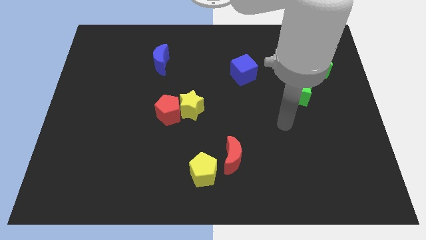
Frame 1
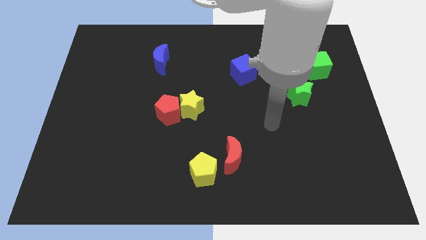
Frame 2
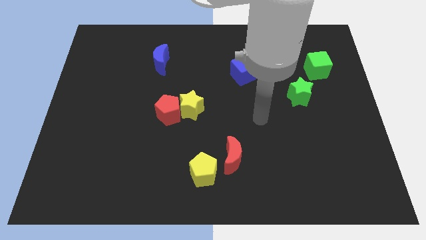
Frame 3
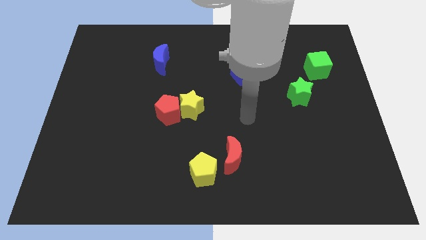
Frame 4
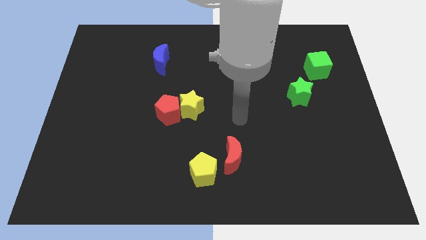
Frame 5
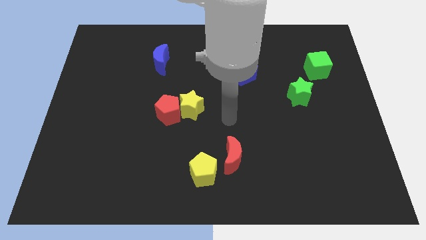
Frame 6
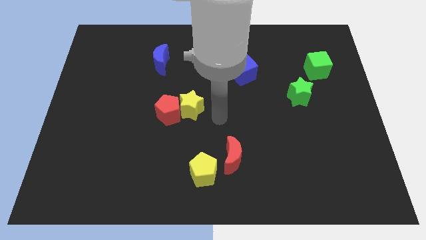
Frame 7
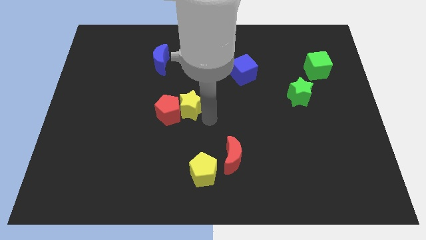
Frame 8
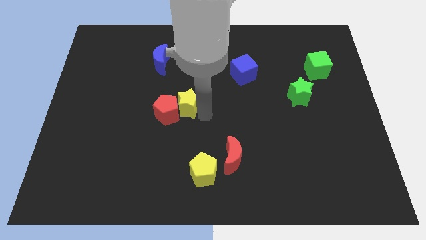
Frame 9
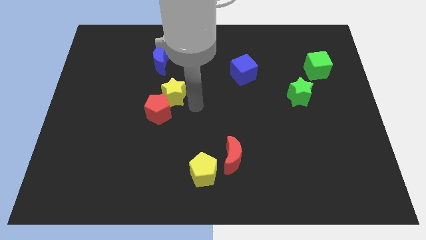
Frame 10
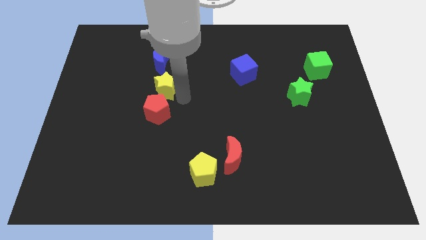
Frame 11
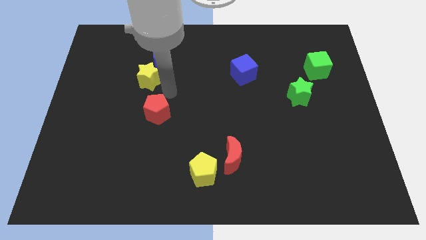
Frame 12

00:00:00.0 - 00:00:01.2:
pull the red pentagon apart from the yellow star

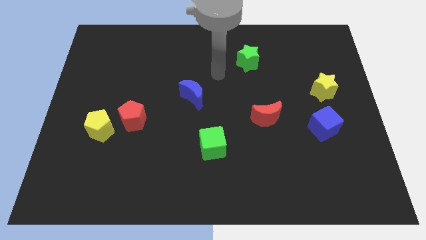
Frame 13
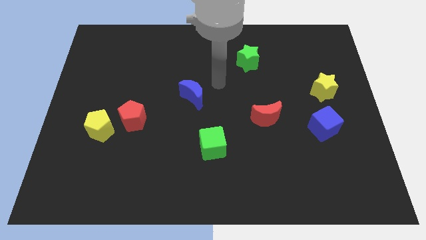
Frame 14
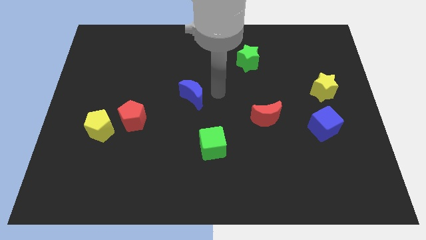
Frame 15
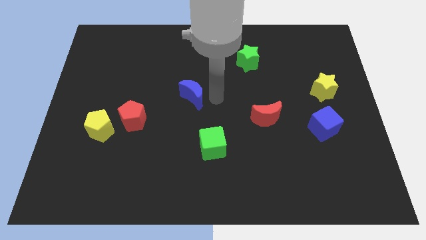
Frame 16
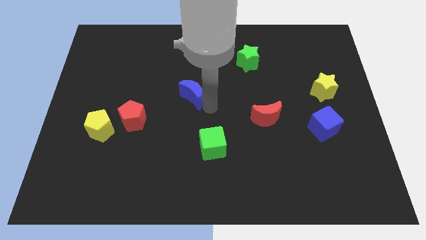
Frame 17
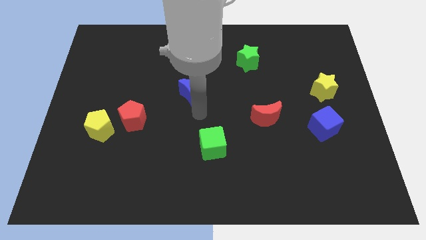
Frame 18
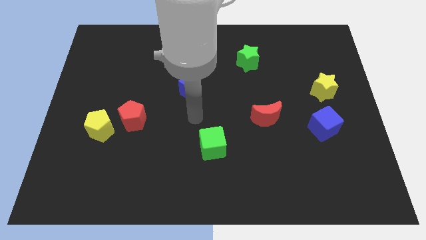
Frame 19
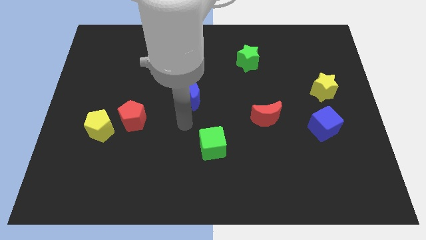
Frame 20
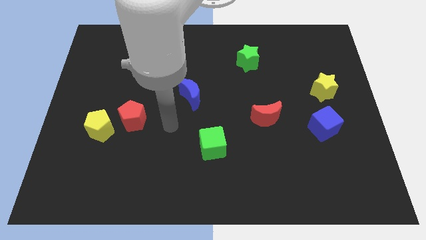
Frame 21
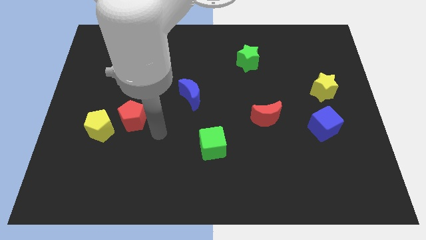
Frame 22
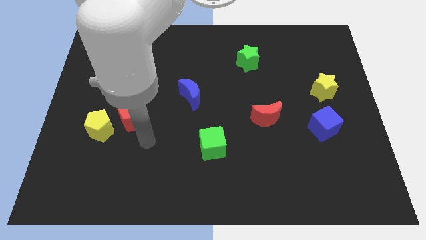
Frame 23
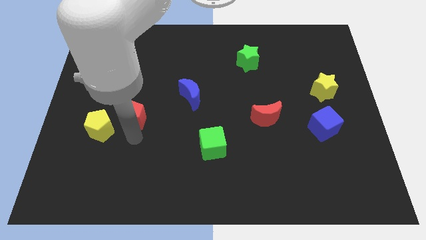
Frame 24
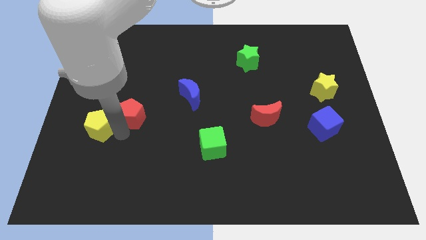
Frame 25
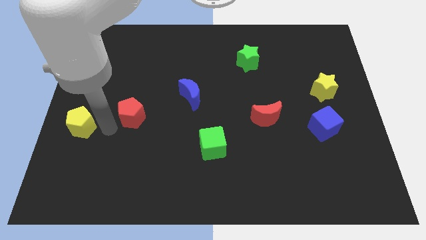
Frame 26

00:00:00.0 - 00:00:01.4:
pull the red pentagon apart from the yellow pentagon

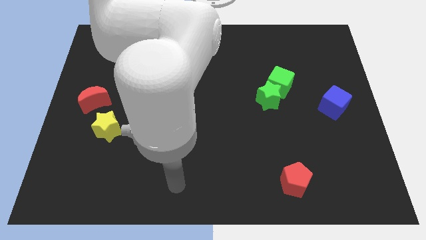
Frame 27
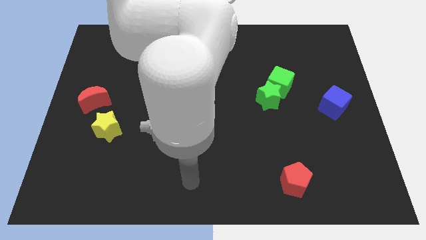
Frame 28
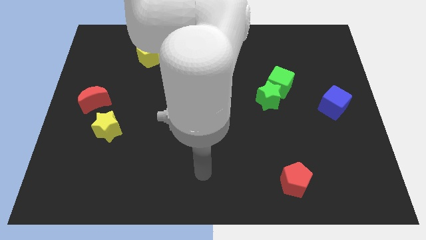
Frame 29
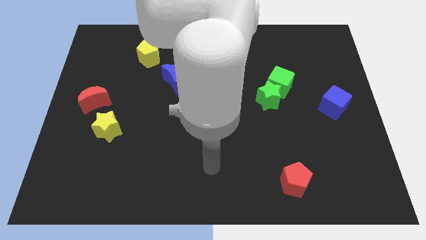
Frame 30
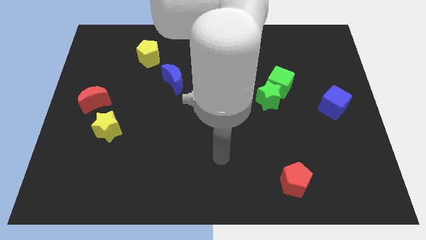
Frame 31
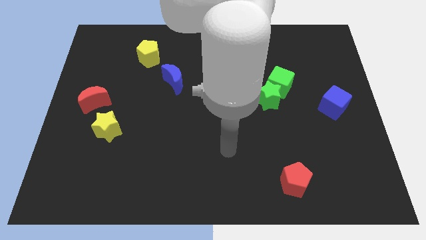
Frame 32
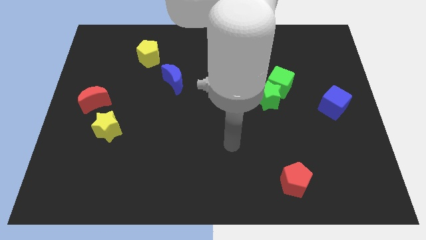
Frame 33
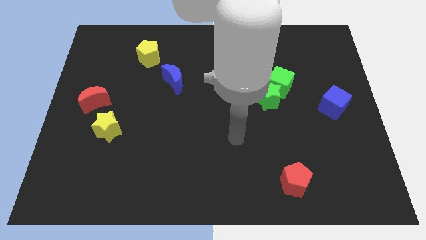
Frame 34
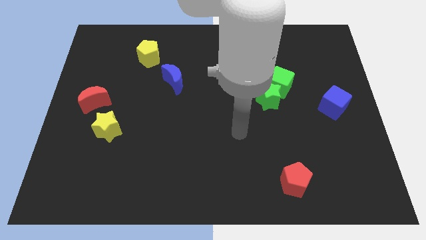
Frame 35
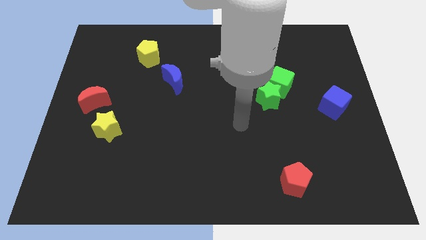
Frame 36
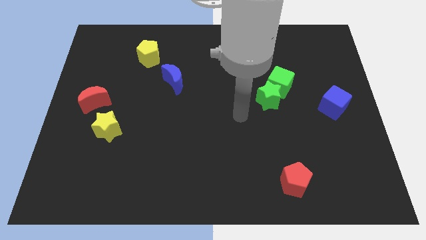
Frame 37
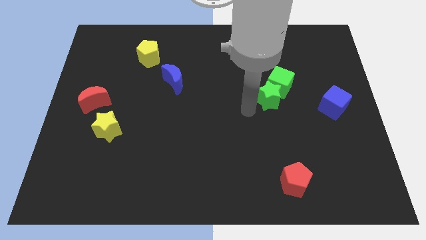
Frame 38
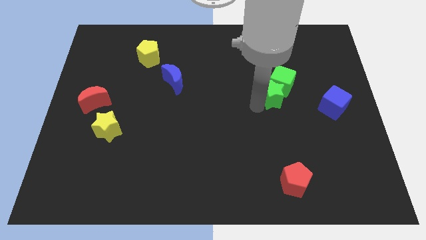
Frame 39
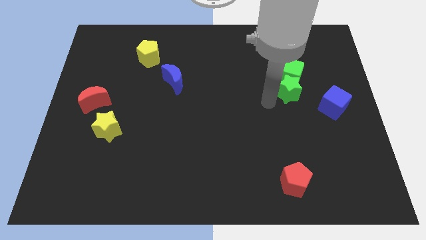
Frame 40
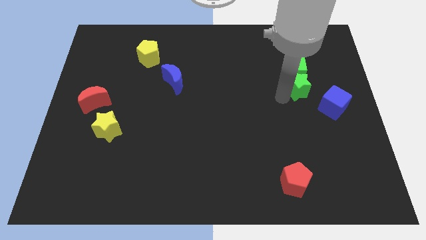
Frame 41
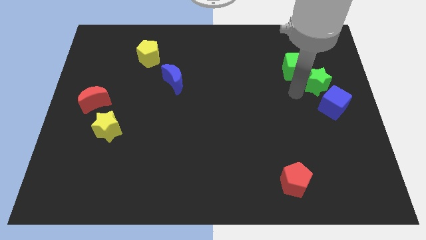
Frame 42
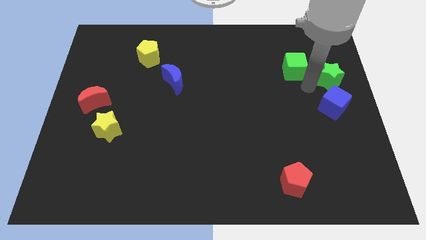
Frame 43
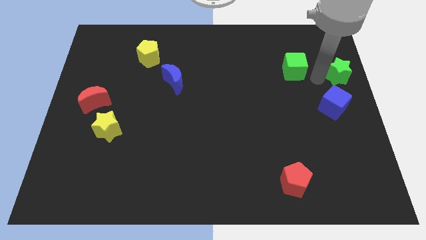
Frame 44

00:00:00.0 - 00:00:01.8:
separate the green cube from the green star

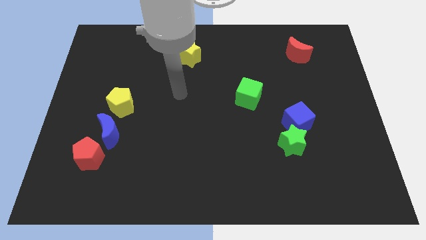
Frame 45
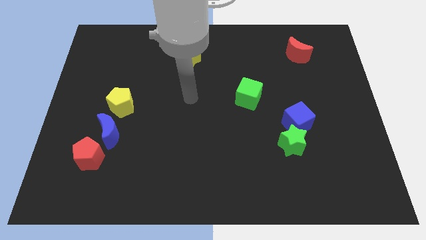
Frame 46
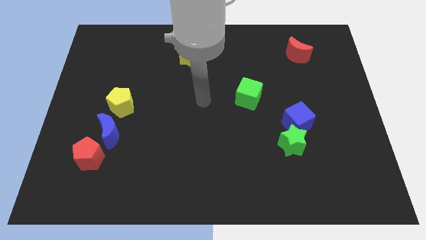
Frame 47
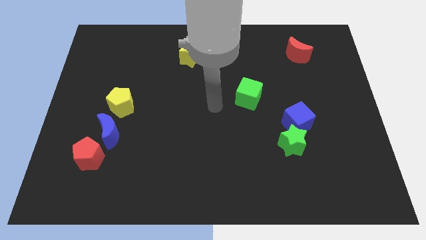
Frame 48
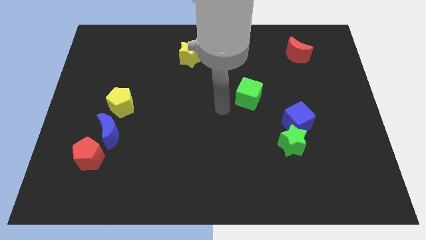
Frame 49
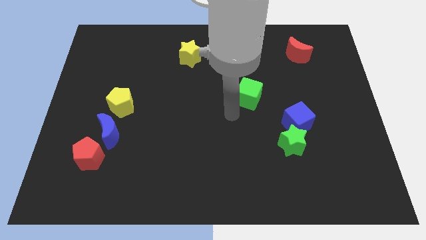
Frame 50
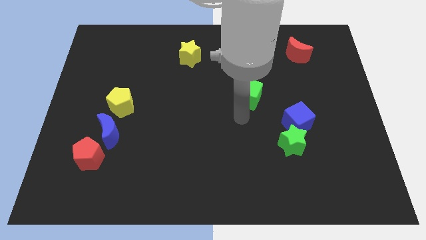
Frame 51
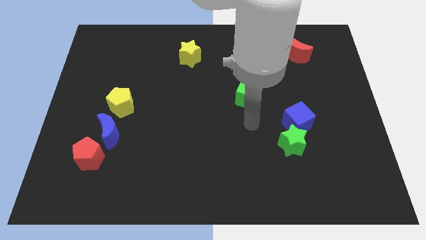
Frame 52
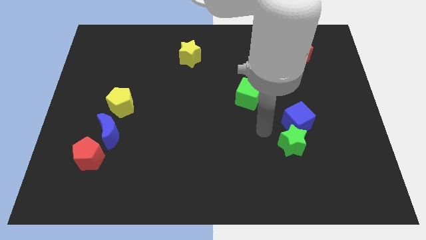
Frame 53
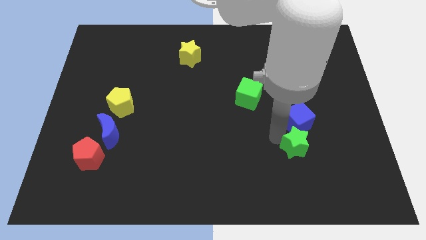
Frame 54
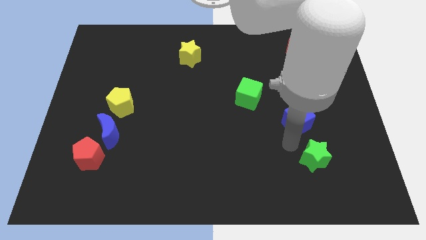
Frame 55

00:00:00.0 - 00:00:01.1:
separate the blue cube from the green star

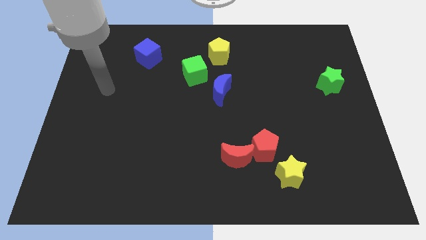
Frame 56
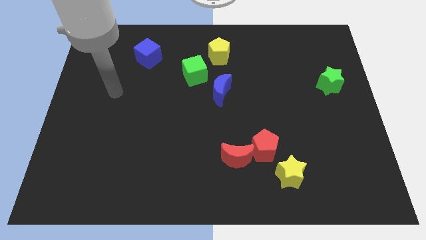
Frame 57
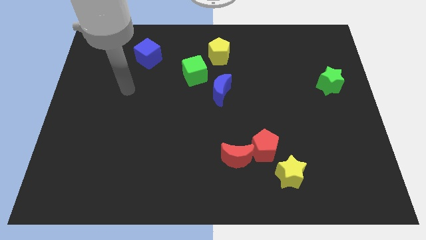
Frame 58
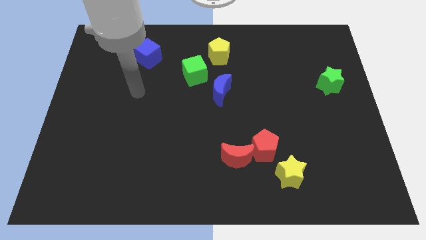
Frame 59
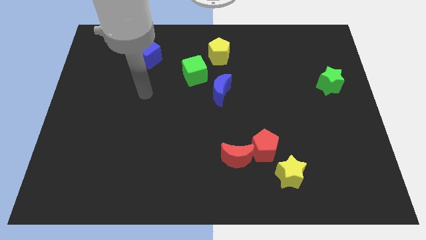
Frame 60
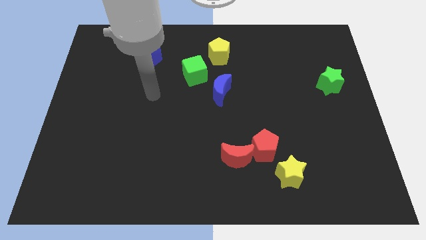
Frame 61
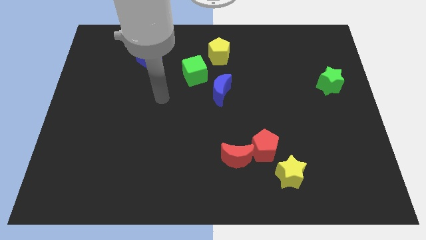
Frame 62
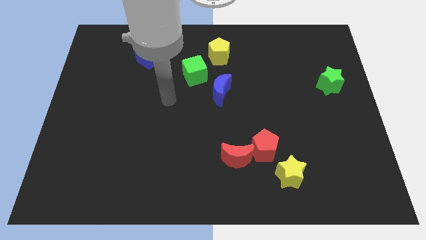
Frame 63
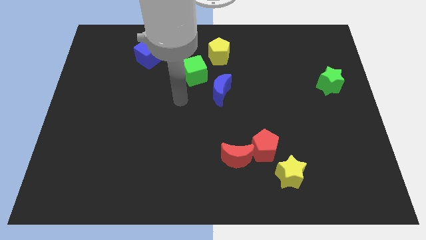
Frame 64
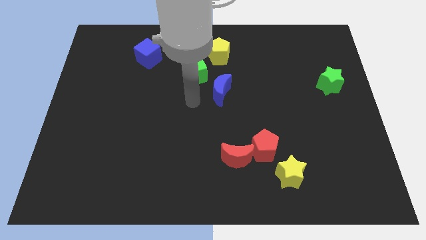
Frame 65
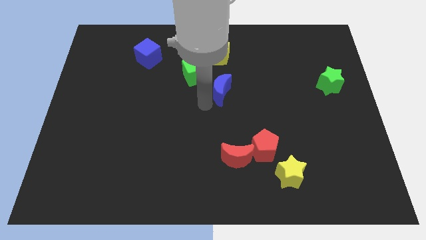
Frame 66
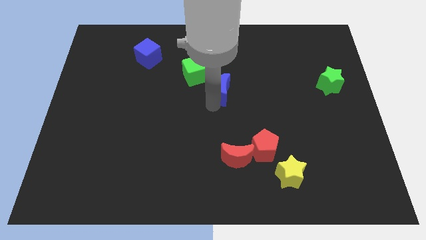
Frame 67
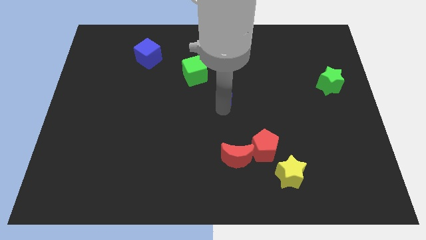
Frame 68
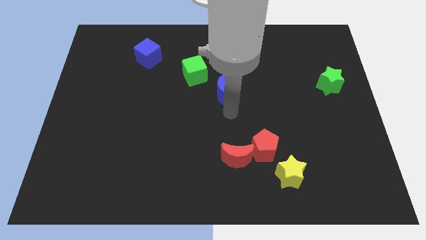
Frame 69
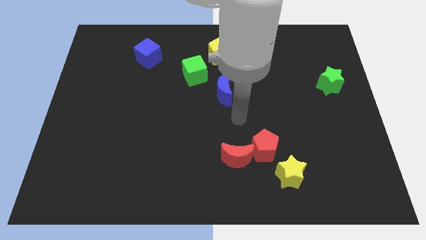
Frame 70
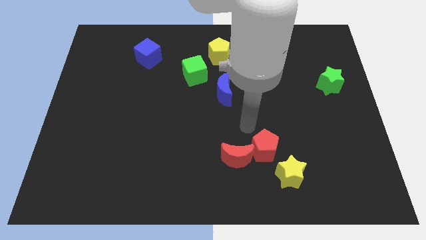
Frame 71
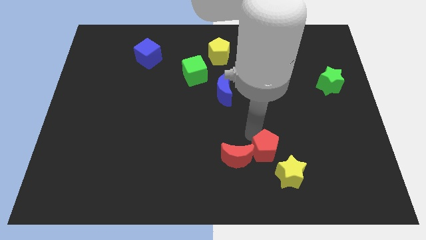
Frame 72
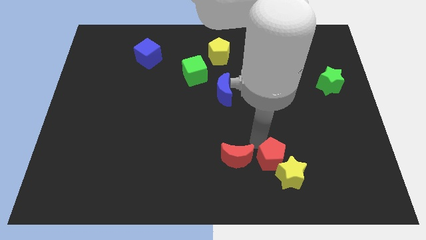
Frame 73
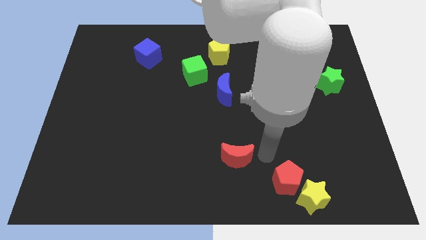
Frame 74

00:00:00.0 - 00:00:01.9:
separate the red moon from the red pentagon

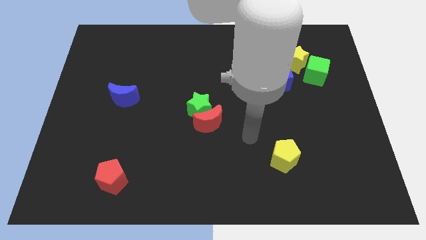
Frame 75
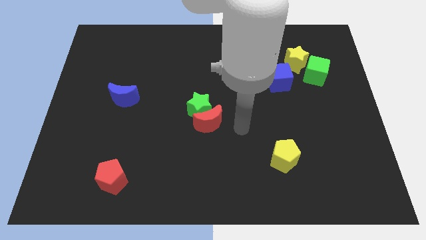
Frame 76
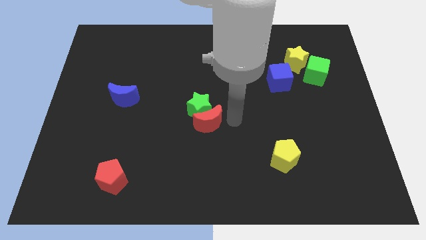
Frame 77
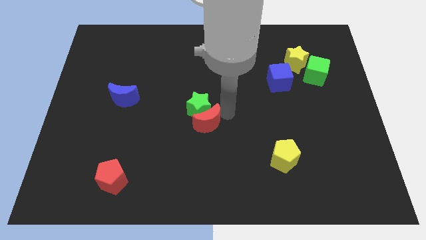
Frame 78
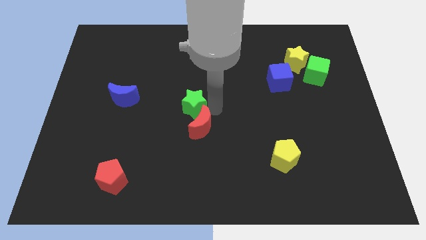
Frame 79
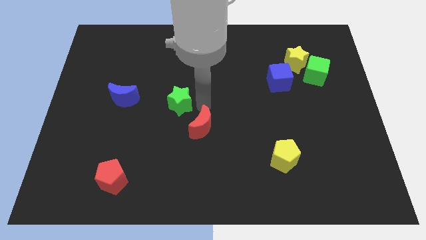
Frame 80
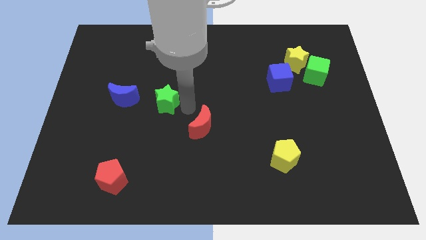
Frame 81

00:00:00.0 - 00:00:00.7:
separate the red moon from the green star

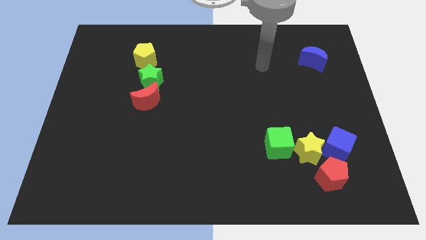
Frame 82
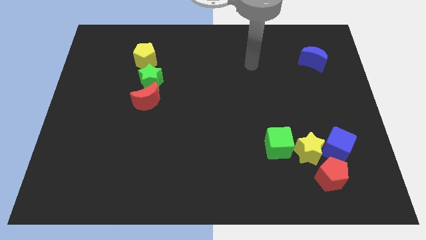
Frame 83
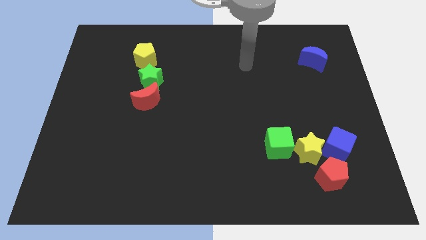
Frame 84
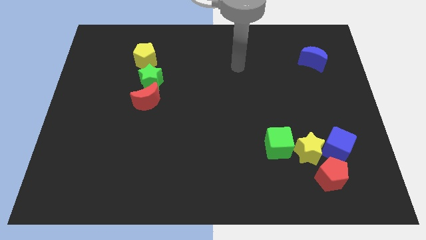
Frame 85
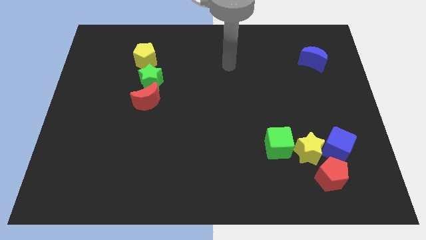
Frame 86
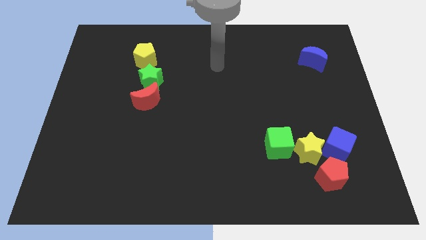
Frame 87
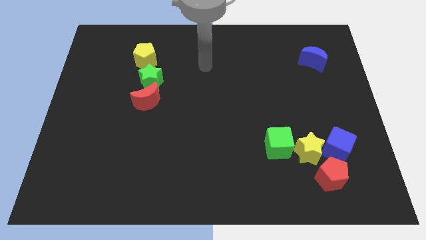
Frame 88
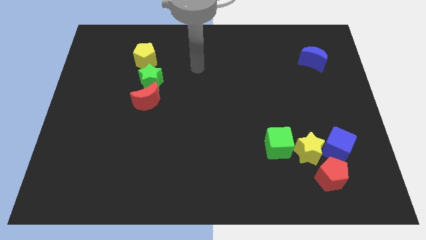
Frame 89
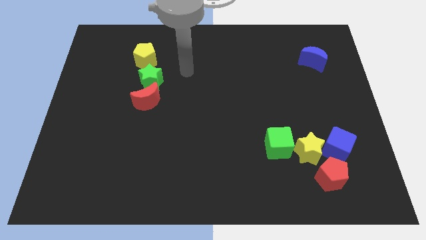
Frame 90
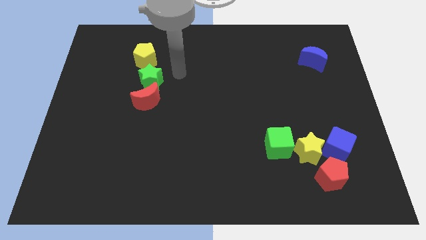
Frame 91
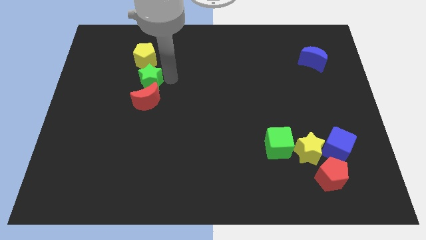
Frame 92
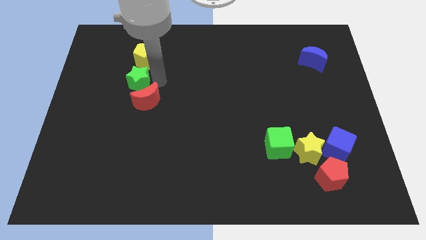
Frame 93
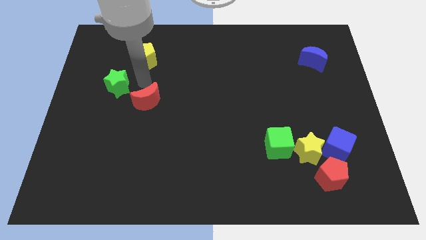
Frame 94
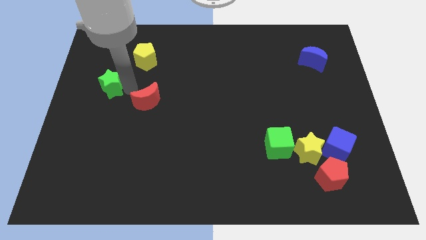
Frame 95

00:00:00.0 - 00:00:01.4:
pull the red moon apart from the green star
